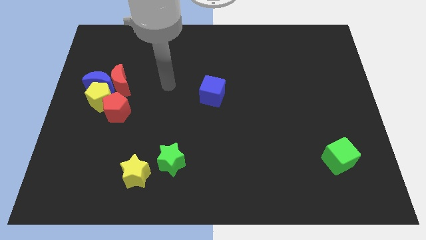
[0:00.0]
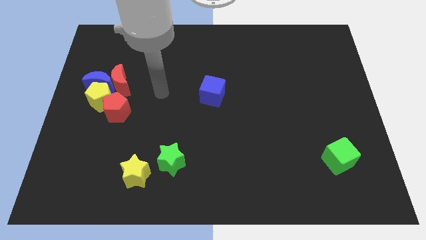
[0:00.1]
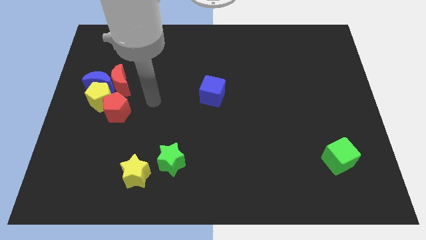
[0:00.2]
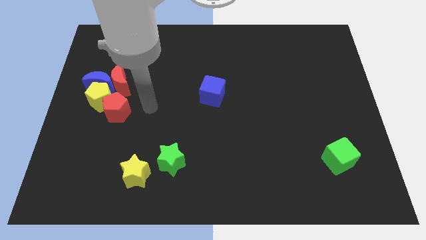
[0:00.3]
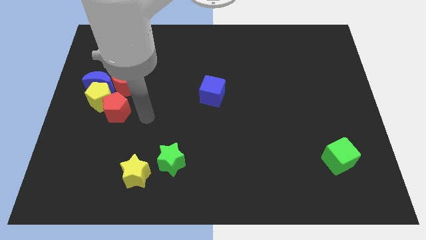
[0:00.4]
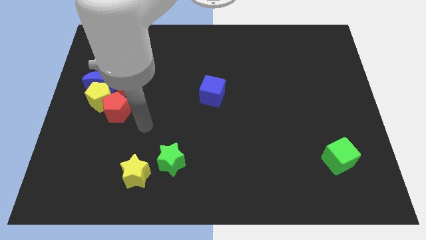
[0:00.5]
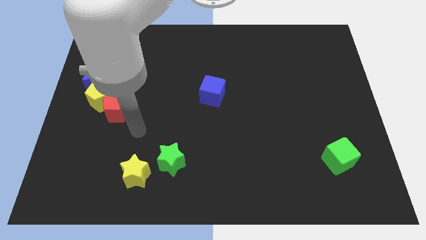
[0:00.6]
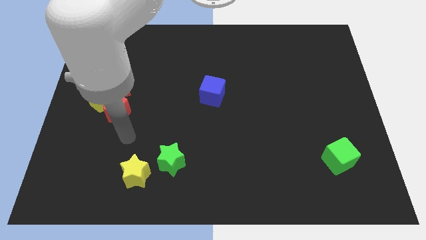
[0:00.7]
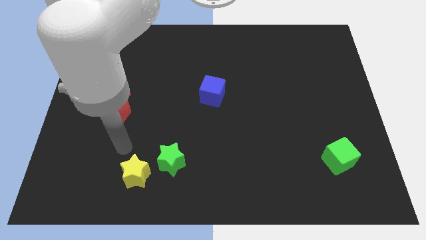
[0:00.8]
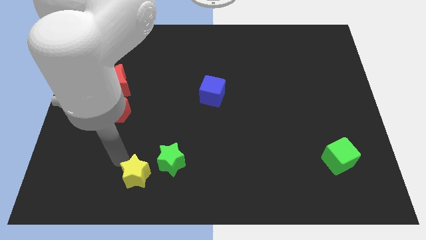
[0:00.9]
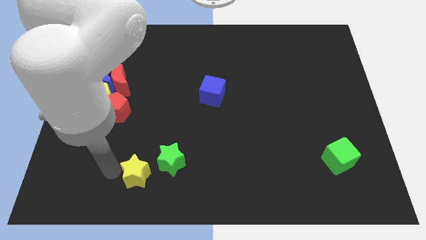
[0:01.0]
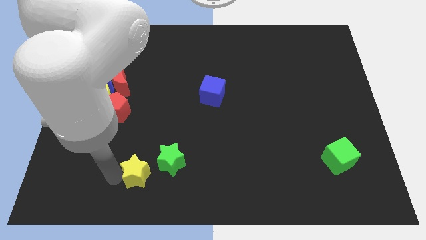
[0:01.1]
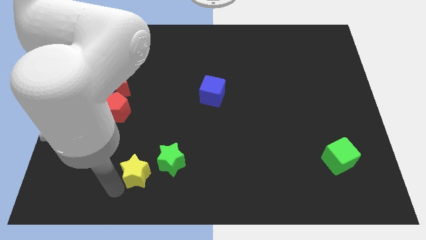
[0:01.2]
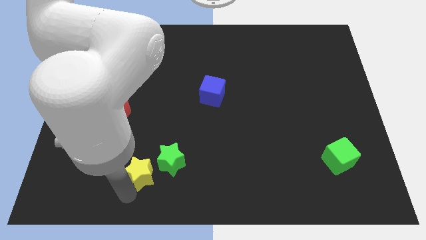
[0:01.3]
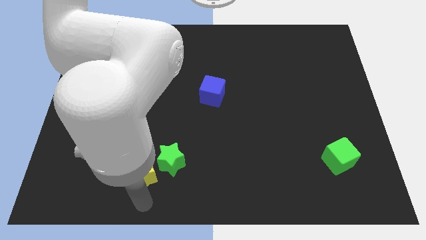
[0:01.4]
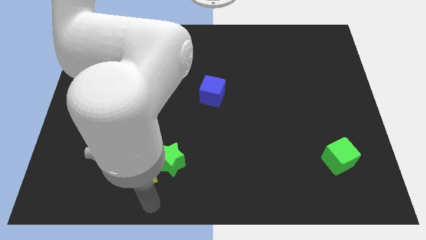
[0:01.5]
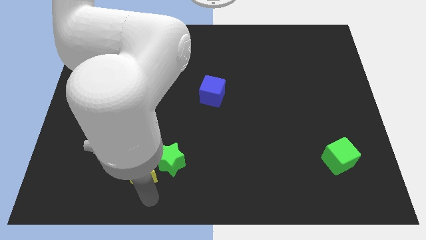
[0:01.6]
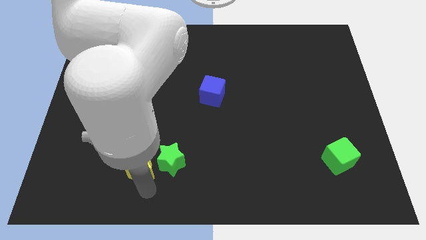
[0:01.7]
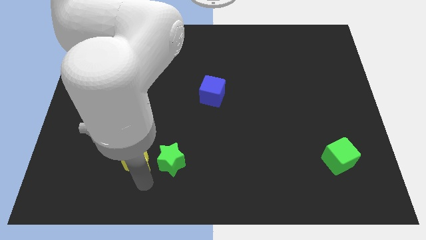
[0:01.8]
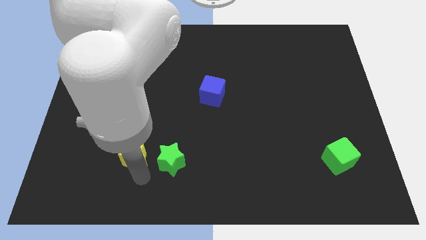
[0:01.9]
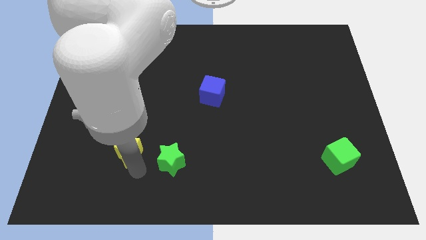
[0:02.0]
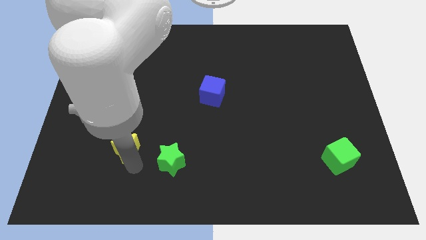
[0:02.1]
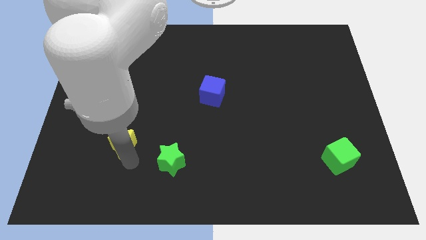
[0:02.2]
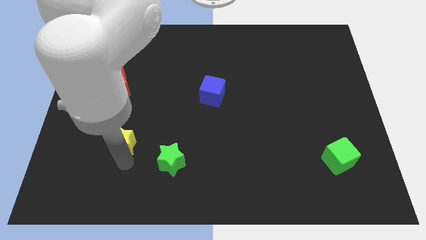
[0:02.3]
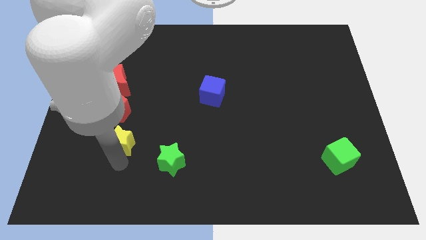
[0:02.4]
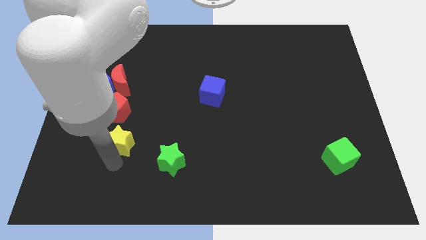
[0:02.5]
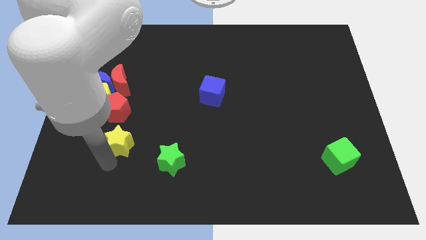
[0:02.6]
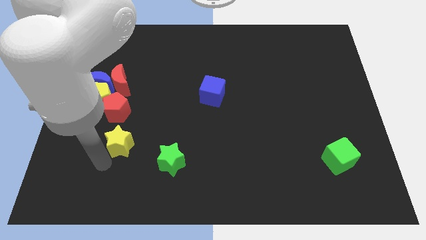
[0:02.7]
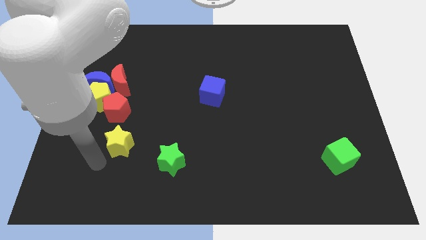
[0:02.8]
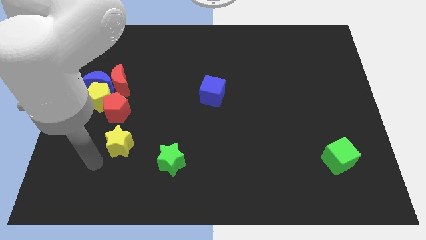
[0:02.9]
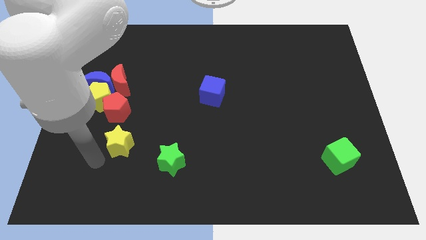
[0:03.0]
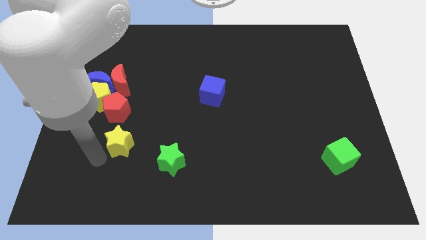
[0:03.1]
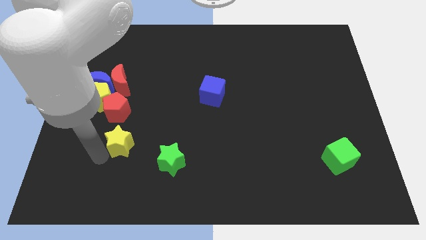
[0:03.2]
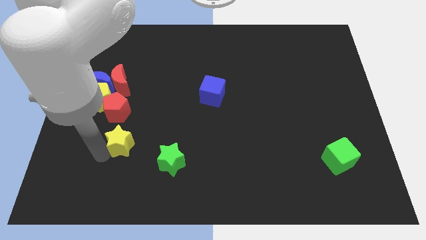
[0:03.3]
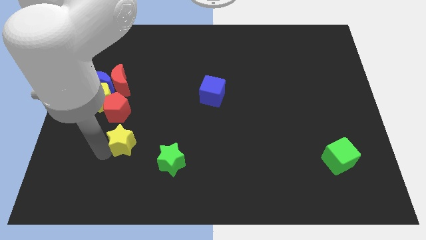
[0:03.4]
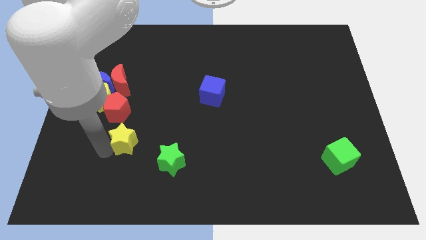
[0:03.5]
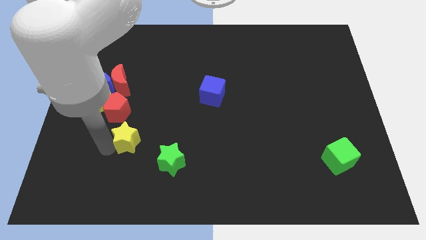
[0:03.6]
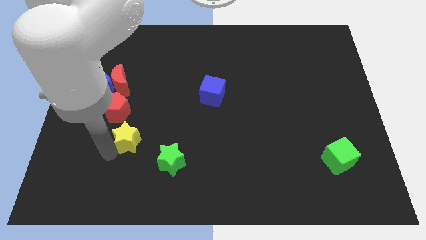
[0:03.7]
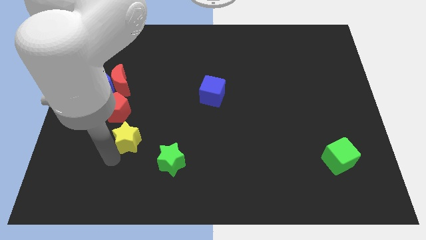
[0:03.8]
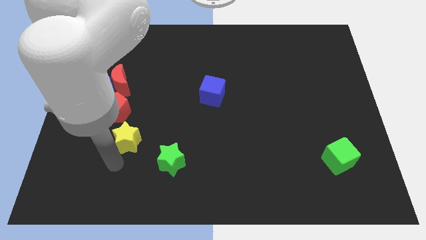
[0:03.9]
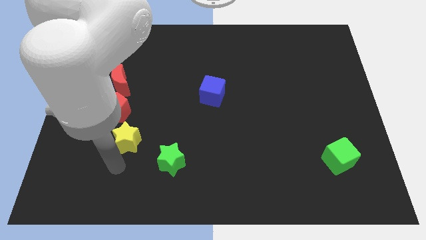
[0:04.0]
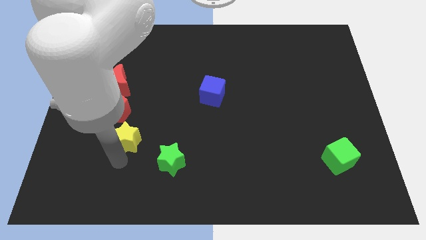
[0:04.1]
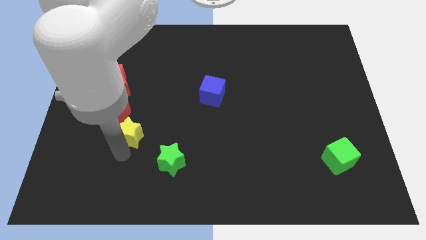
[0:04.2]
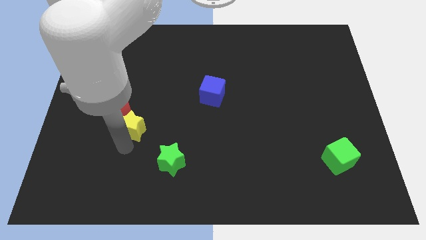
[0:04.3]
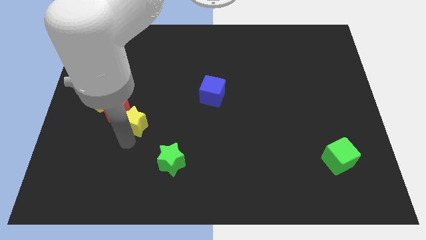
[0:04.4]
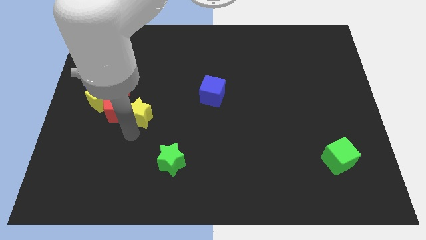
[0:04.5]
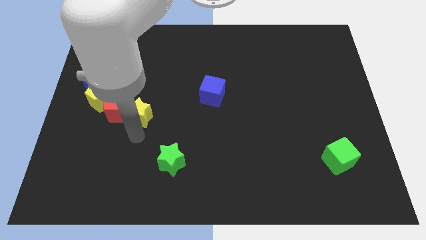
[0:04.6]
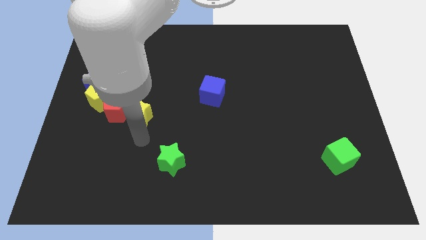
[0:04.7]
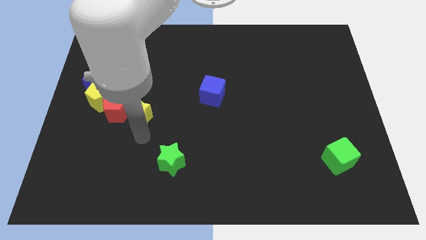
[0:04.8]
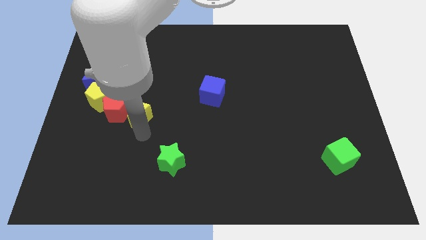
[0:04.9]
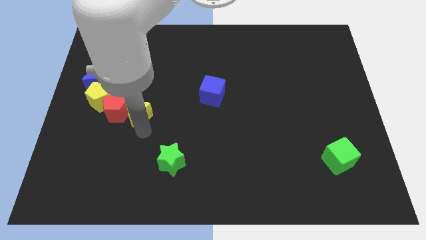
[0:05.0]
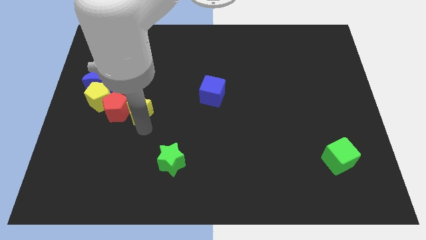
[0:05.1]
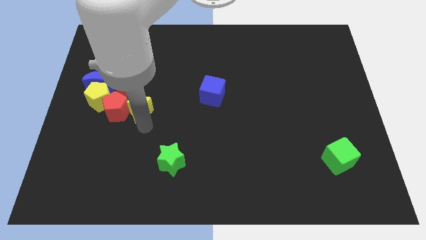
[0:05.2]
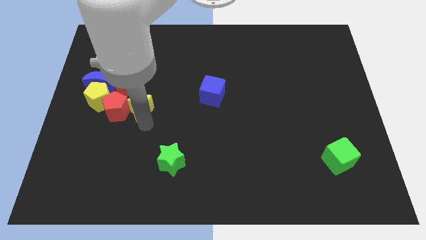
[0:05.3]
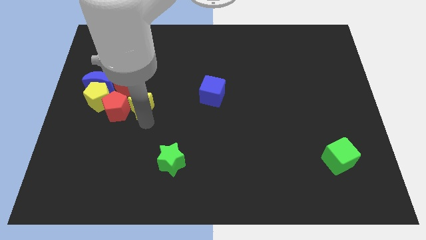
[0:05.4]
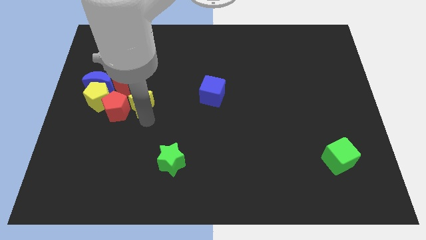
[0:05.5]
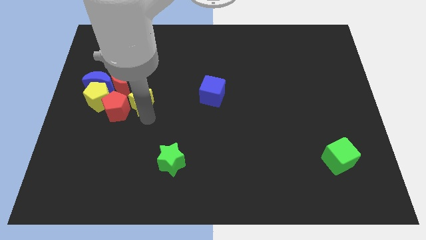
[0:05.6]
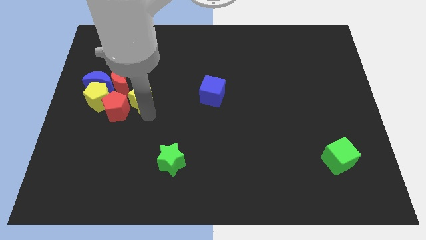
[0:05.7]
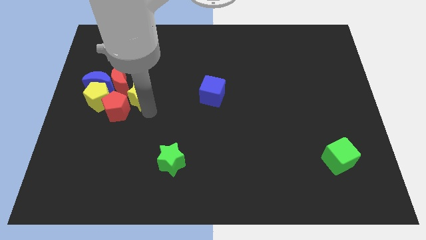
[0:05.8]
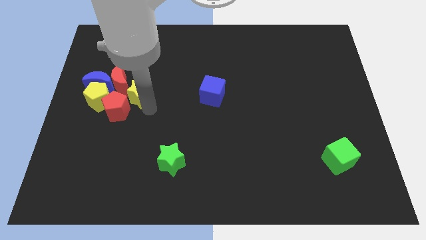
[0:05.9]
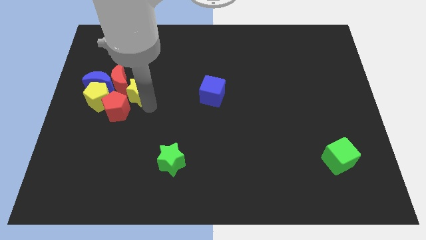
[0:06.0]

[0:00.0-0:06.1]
put the yellow star close to the red moon
